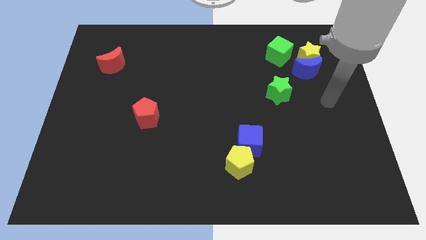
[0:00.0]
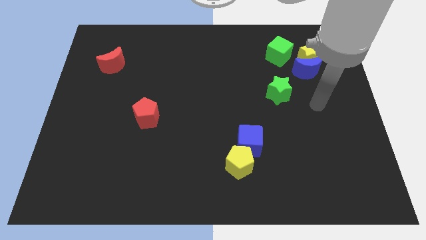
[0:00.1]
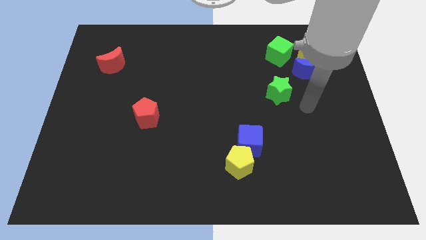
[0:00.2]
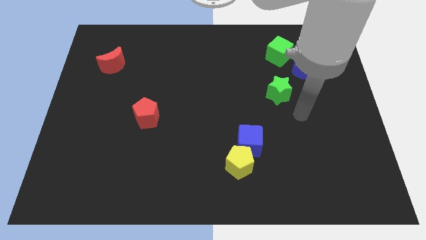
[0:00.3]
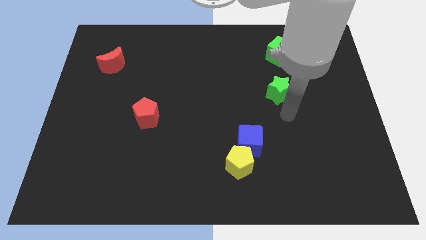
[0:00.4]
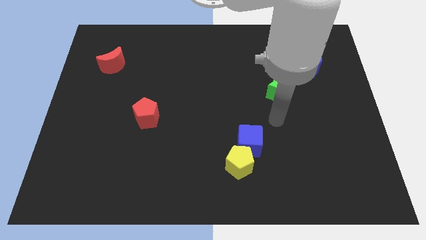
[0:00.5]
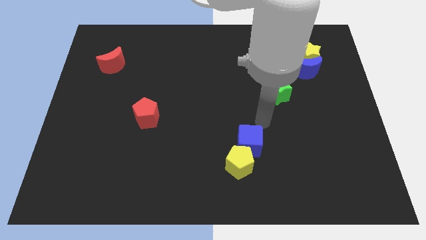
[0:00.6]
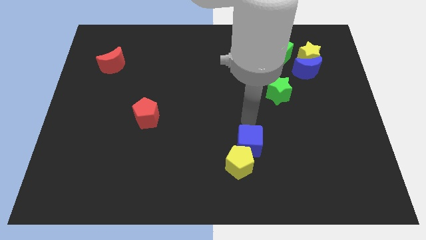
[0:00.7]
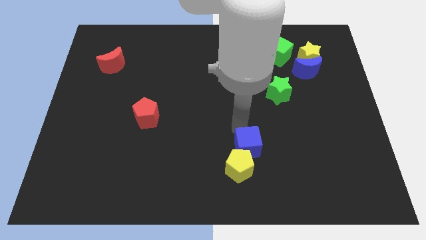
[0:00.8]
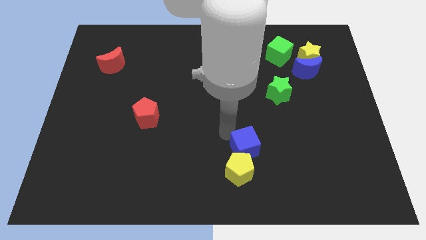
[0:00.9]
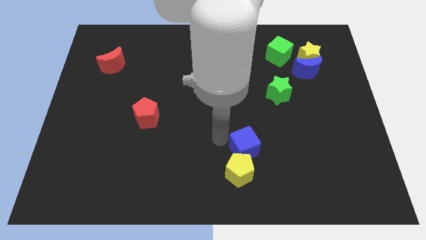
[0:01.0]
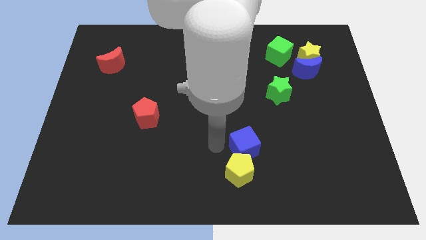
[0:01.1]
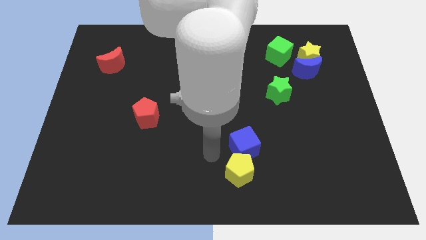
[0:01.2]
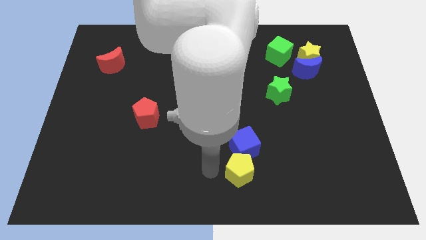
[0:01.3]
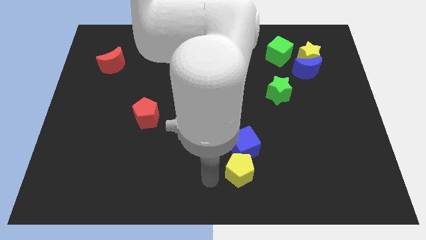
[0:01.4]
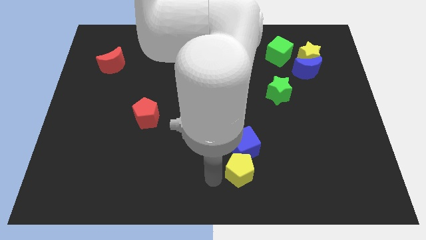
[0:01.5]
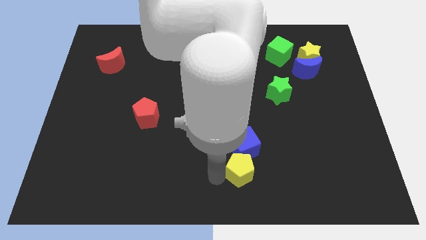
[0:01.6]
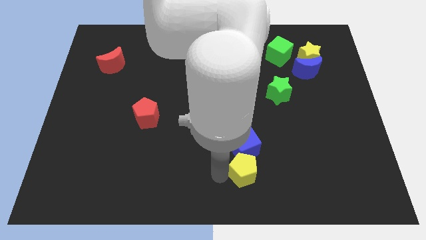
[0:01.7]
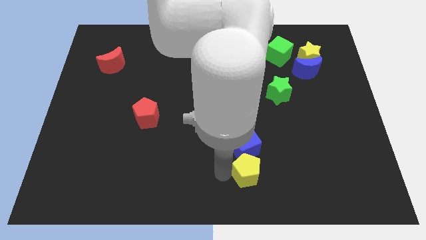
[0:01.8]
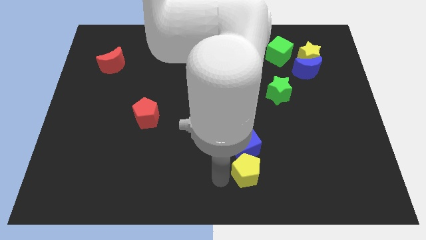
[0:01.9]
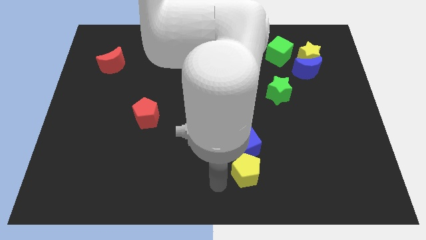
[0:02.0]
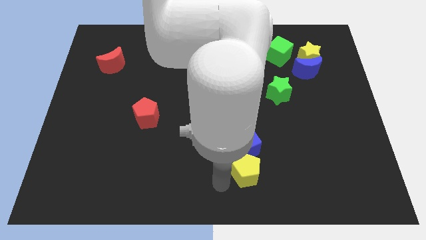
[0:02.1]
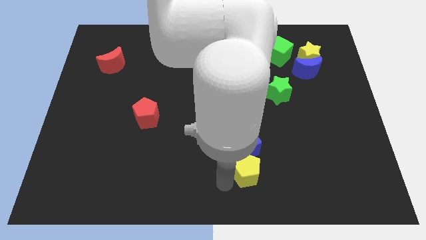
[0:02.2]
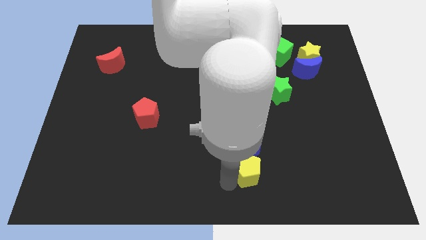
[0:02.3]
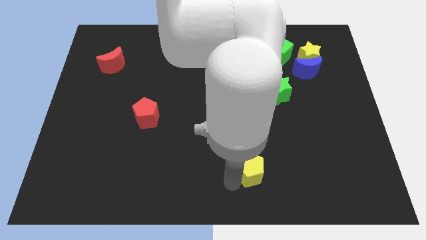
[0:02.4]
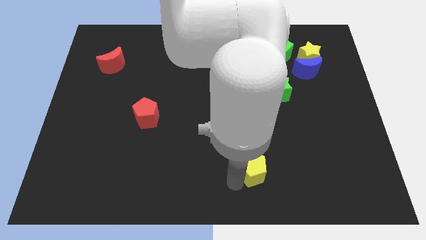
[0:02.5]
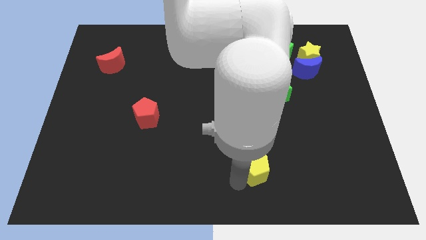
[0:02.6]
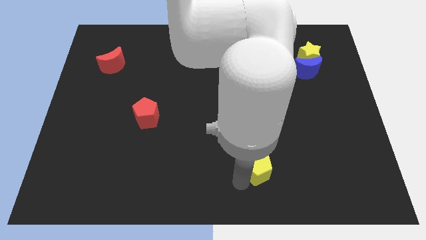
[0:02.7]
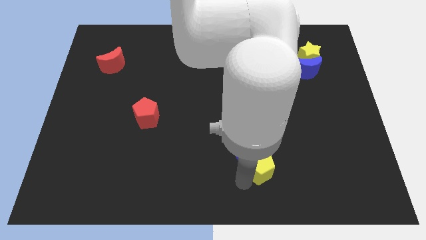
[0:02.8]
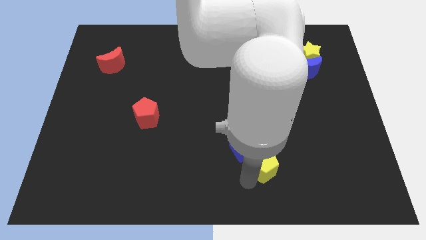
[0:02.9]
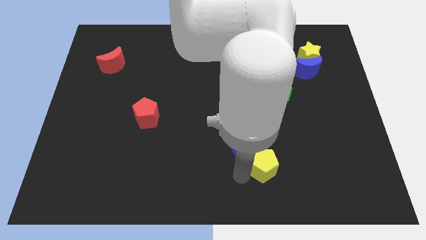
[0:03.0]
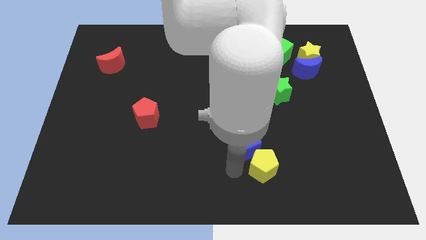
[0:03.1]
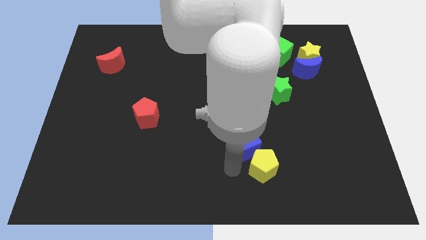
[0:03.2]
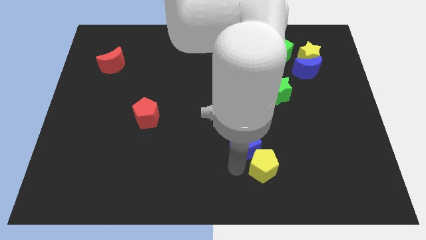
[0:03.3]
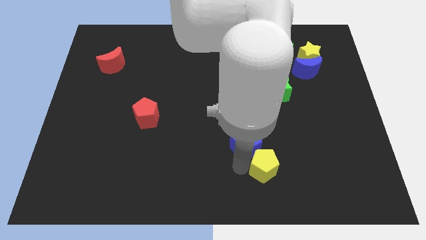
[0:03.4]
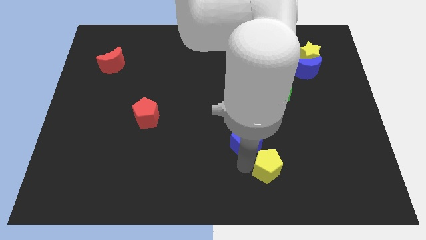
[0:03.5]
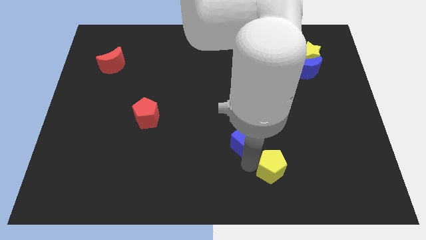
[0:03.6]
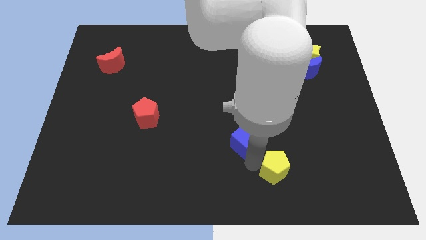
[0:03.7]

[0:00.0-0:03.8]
slightly push the yellow pentagon right

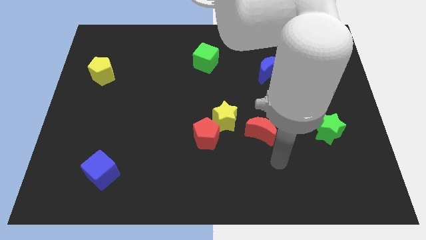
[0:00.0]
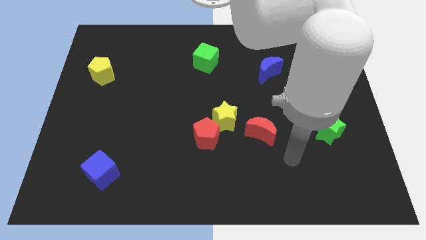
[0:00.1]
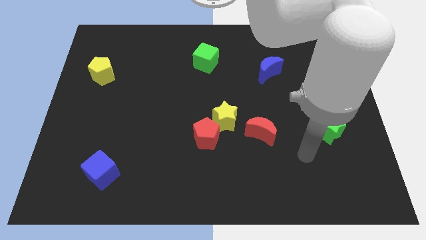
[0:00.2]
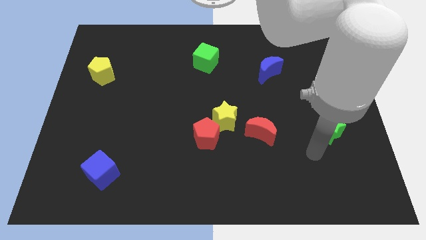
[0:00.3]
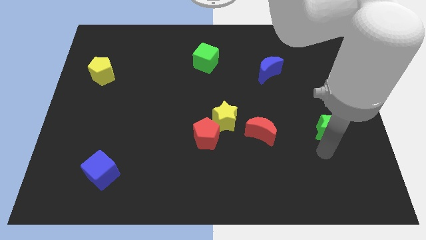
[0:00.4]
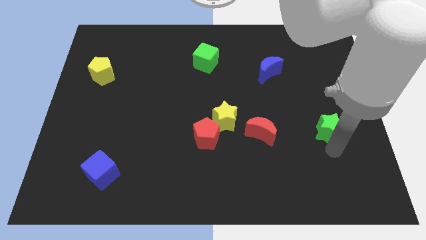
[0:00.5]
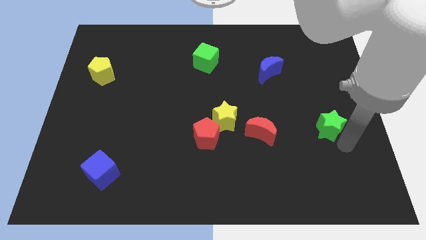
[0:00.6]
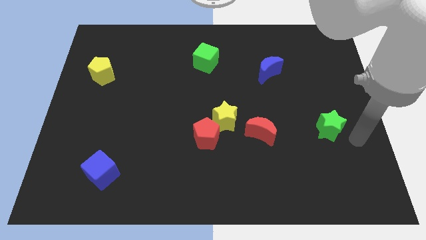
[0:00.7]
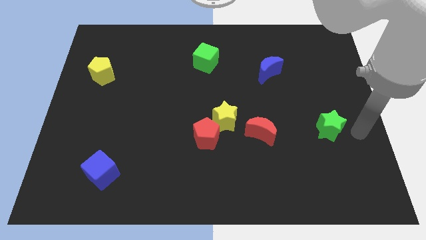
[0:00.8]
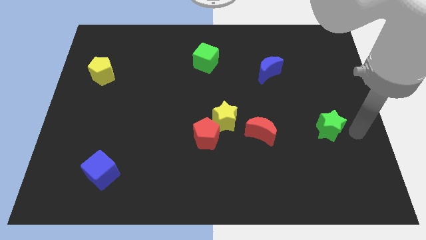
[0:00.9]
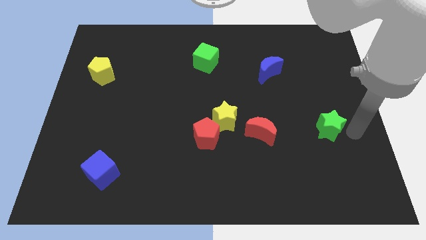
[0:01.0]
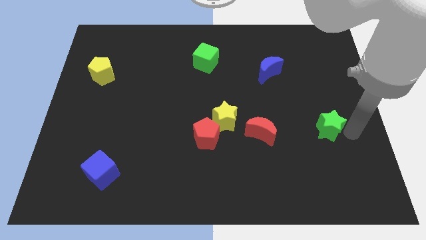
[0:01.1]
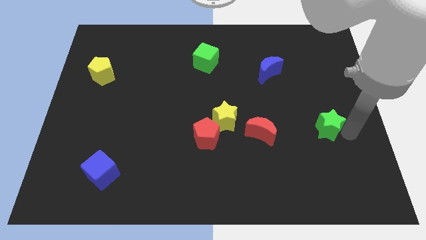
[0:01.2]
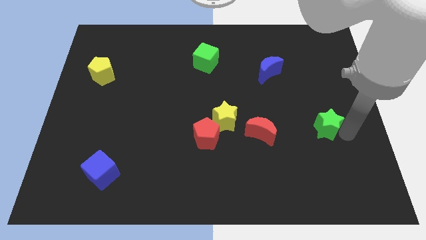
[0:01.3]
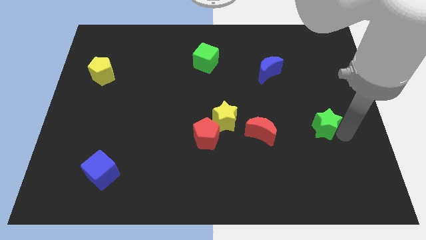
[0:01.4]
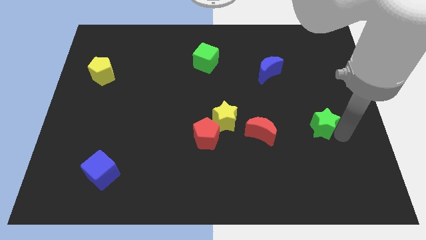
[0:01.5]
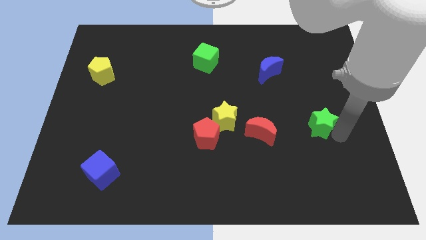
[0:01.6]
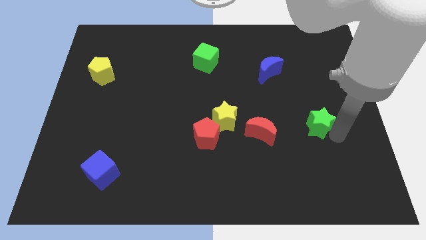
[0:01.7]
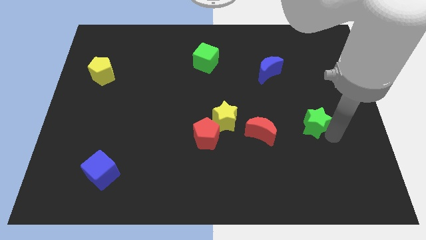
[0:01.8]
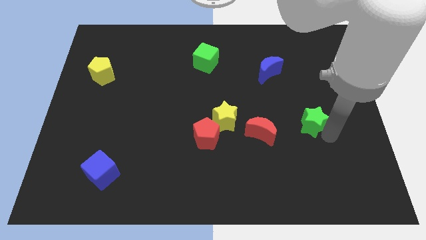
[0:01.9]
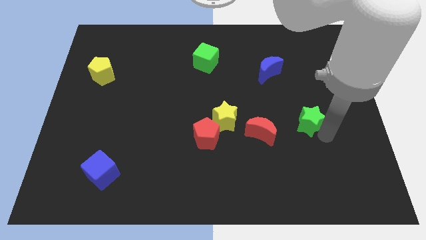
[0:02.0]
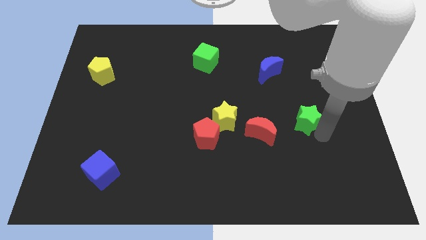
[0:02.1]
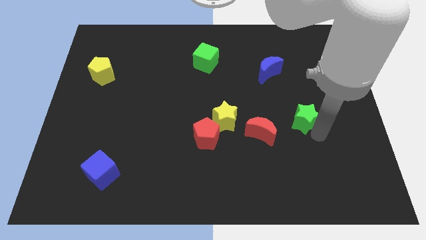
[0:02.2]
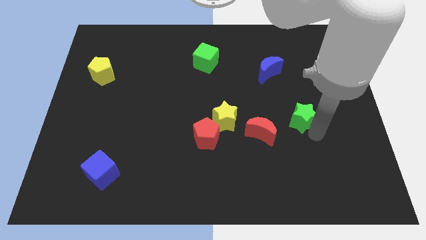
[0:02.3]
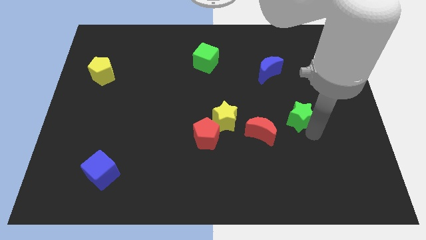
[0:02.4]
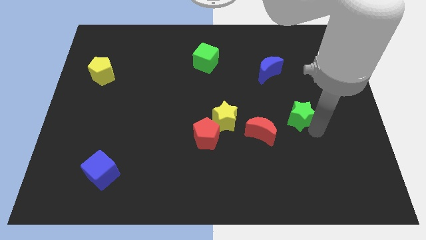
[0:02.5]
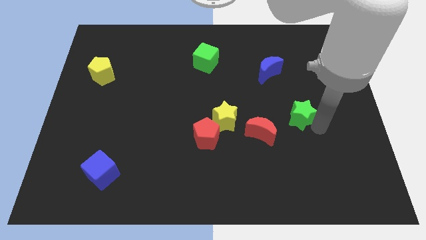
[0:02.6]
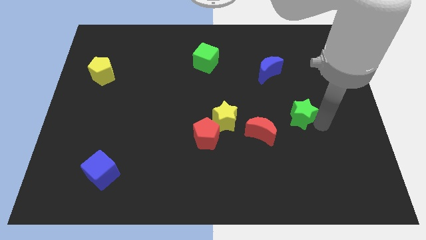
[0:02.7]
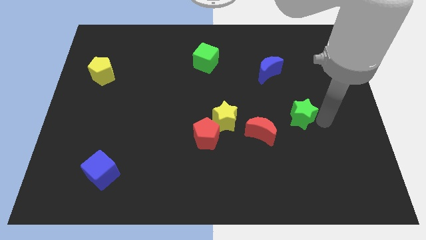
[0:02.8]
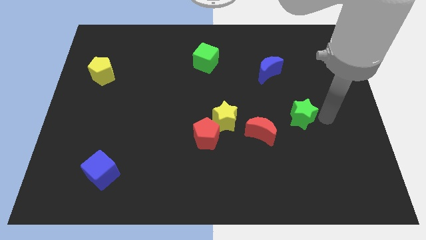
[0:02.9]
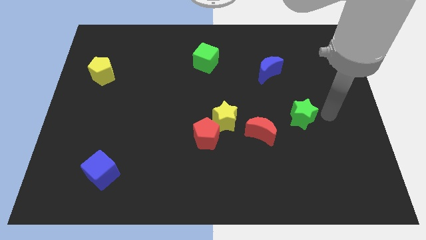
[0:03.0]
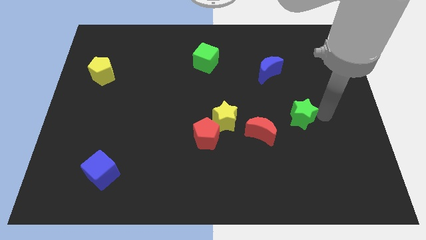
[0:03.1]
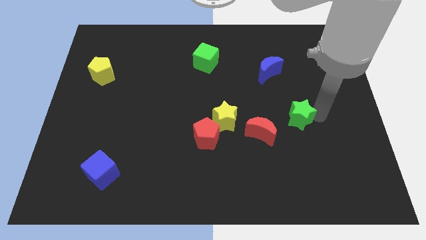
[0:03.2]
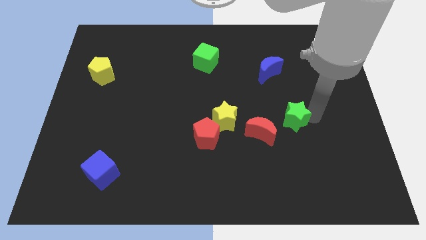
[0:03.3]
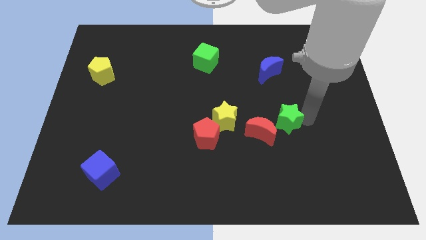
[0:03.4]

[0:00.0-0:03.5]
slide the green star a little to the left

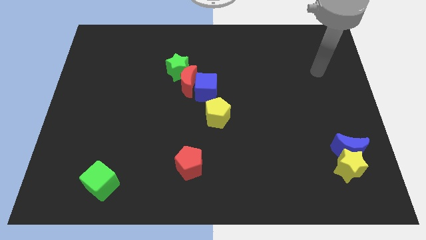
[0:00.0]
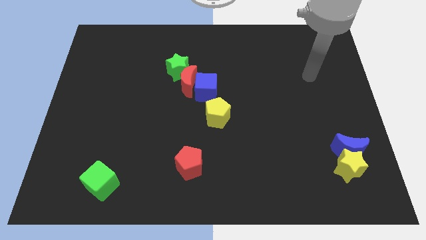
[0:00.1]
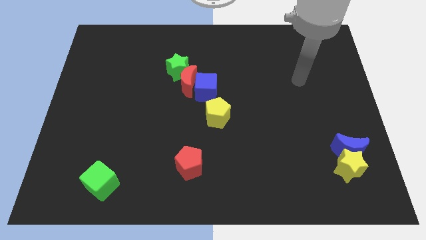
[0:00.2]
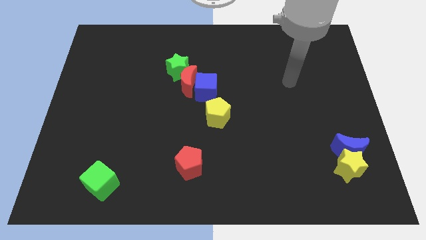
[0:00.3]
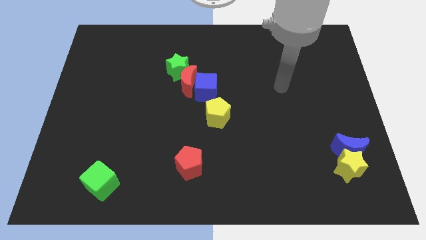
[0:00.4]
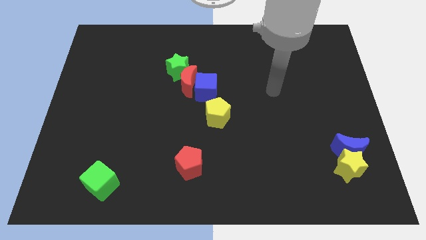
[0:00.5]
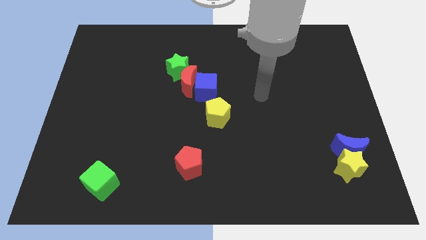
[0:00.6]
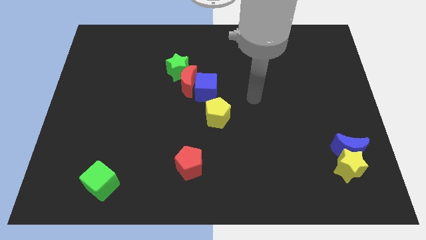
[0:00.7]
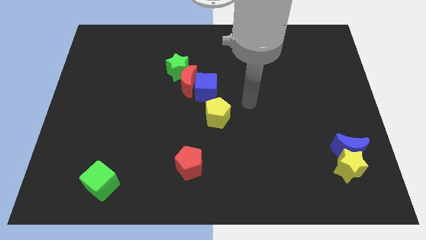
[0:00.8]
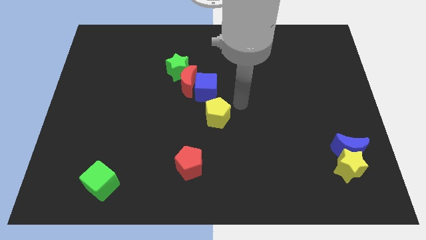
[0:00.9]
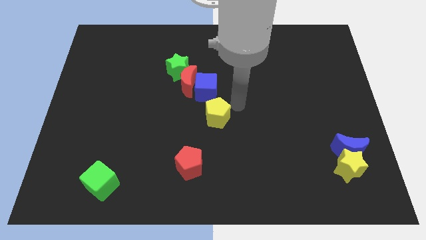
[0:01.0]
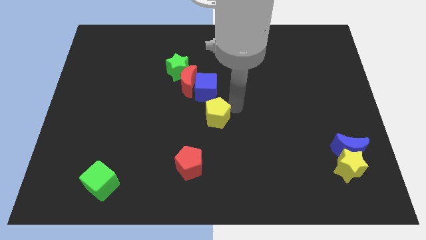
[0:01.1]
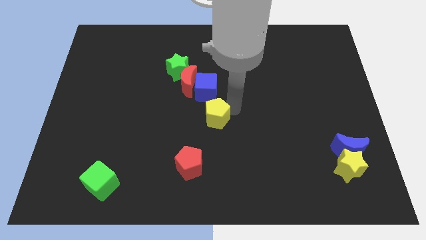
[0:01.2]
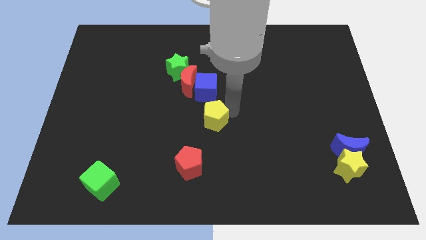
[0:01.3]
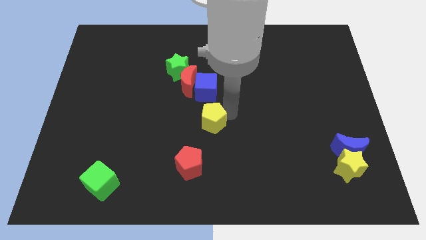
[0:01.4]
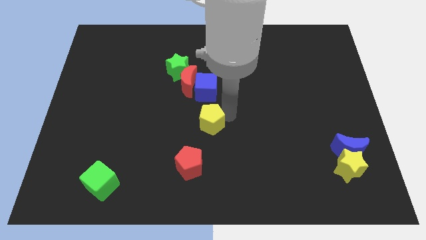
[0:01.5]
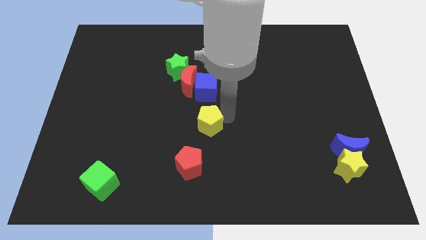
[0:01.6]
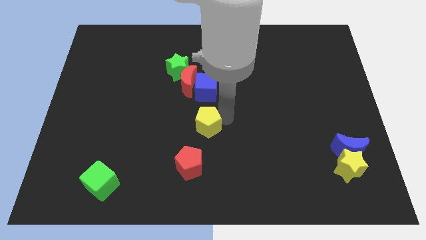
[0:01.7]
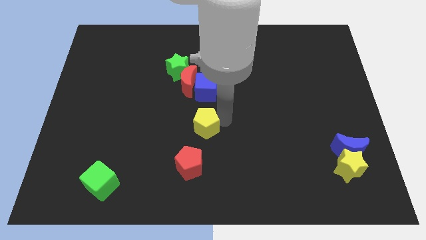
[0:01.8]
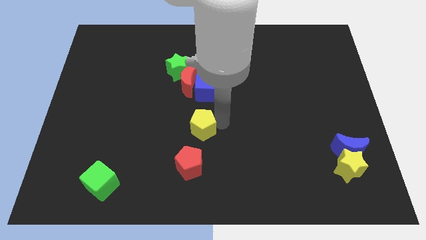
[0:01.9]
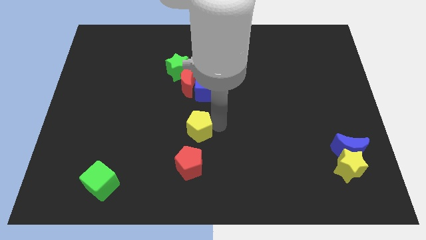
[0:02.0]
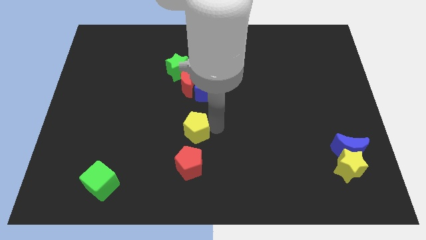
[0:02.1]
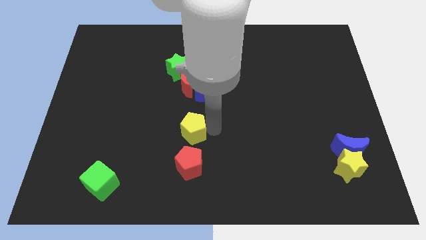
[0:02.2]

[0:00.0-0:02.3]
push the yellow pentagon a little bit downwards and to the left
